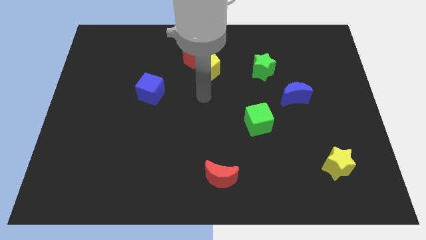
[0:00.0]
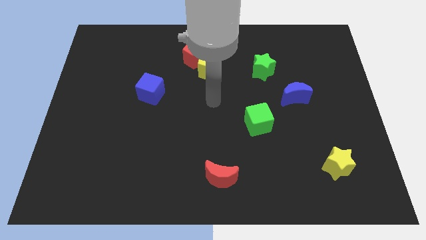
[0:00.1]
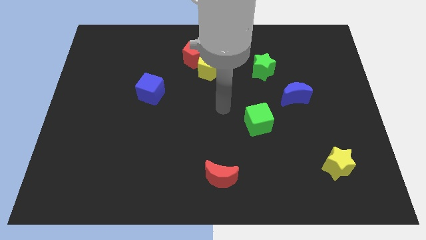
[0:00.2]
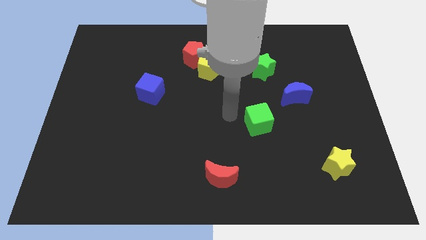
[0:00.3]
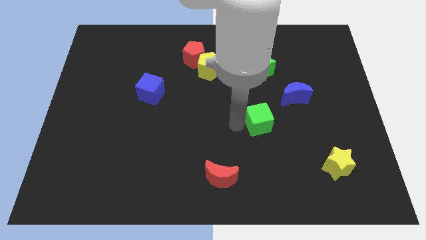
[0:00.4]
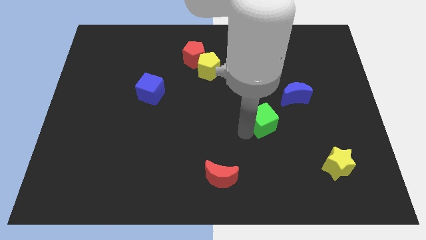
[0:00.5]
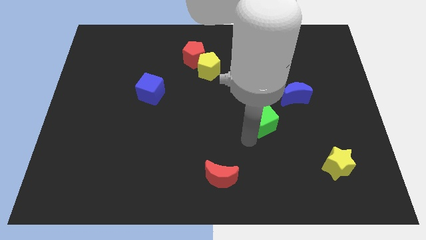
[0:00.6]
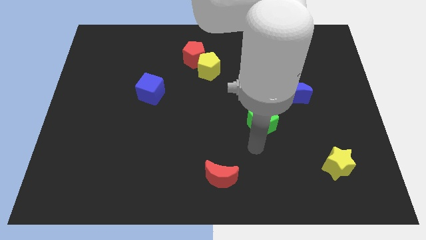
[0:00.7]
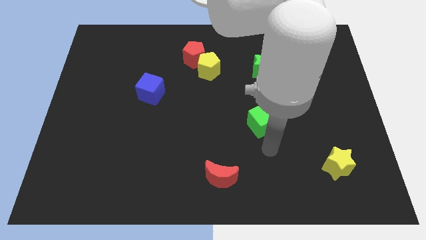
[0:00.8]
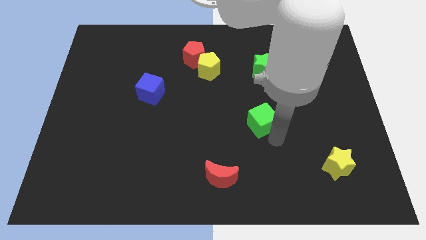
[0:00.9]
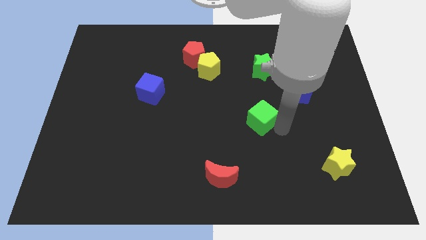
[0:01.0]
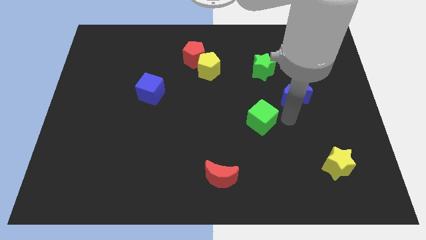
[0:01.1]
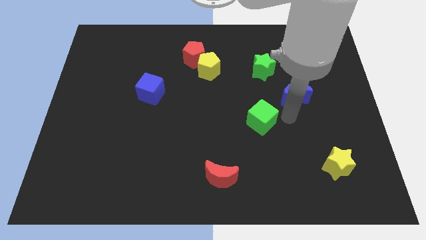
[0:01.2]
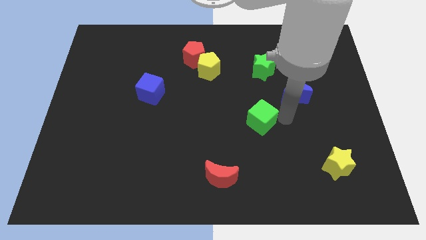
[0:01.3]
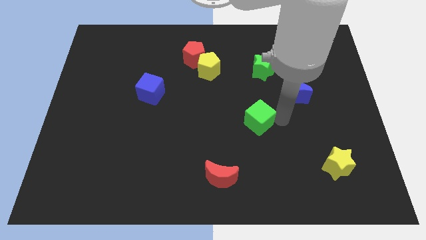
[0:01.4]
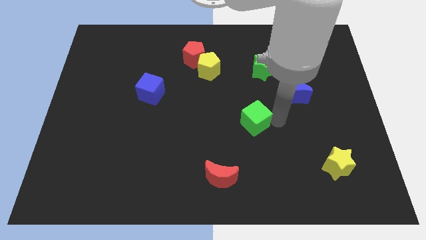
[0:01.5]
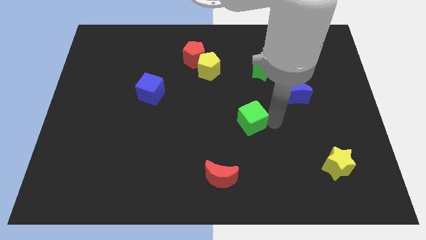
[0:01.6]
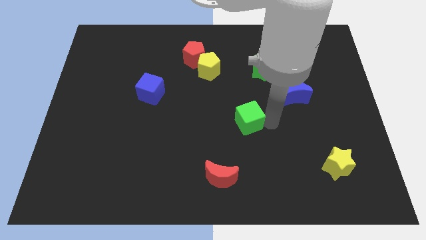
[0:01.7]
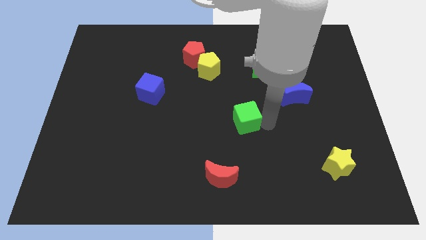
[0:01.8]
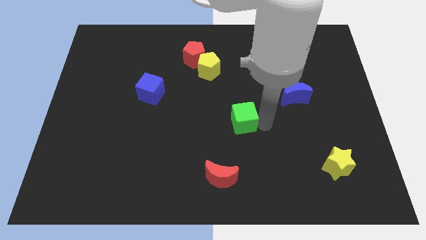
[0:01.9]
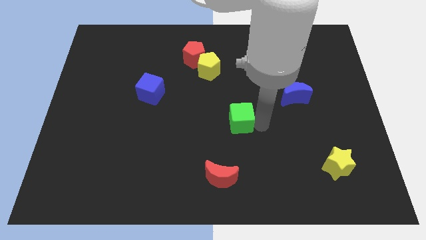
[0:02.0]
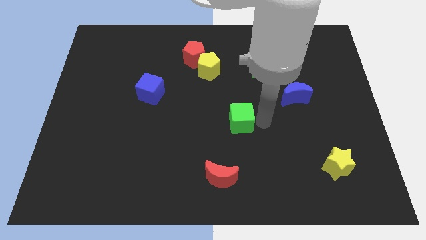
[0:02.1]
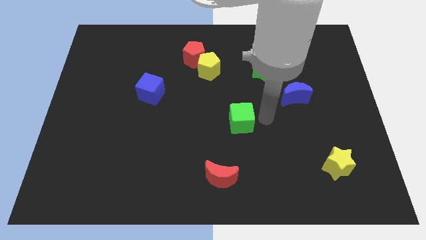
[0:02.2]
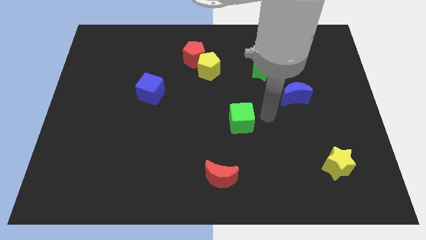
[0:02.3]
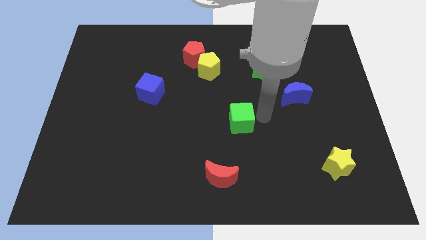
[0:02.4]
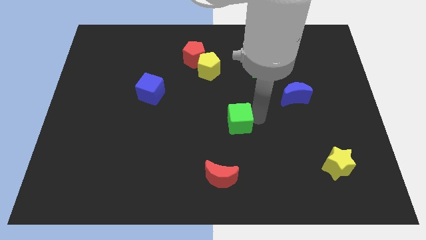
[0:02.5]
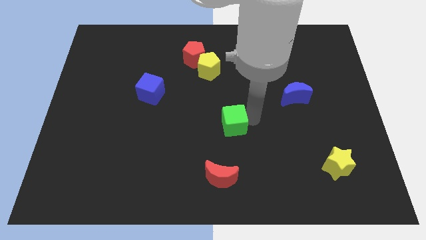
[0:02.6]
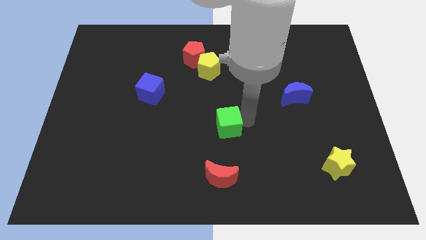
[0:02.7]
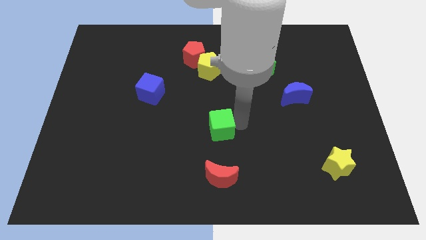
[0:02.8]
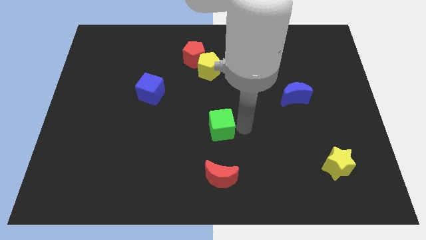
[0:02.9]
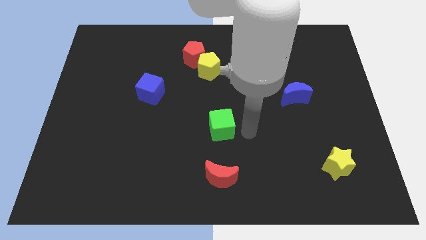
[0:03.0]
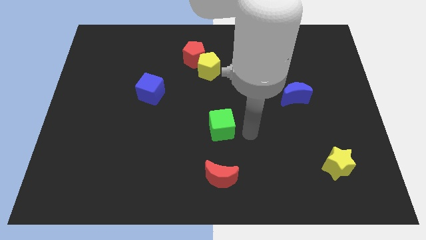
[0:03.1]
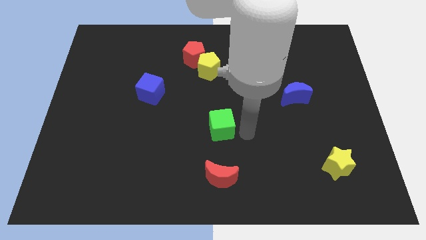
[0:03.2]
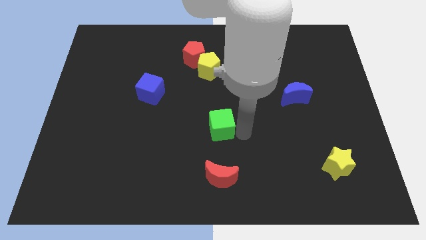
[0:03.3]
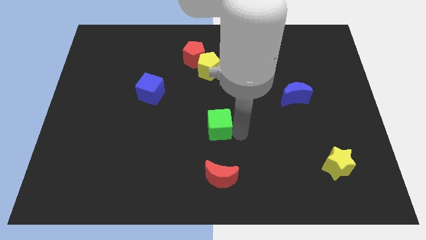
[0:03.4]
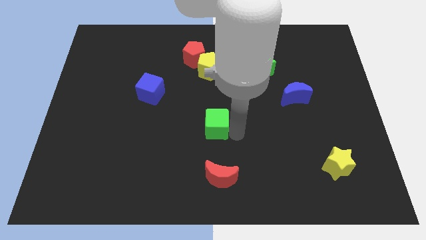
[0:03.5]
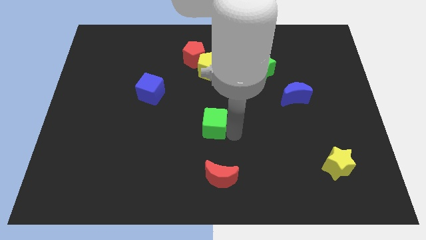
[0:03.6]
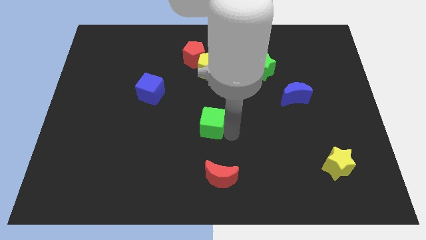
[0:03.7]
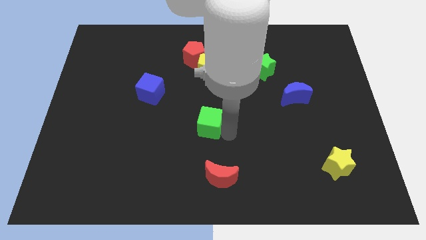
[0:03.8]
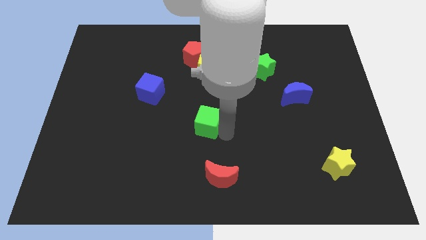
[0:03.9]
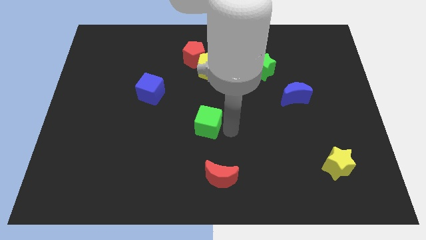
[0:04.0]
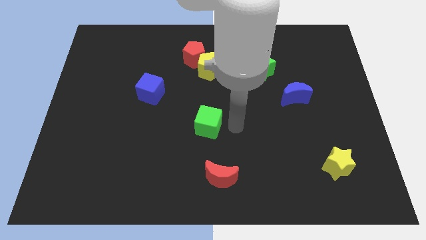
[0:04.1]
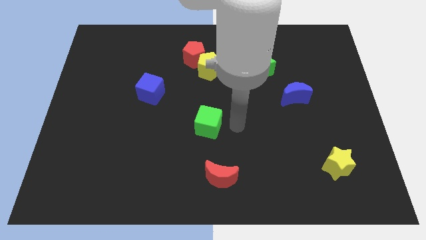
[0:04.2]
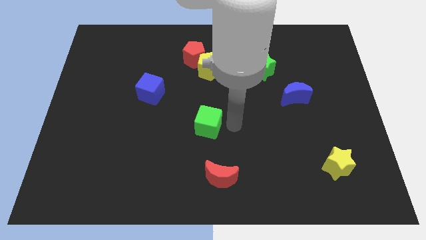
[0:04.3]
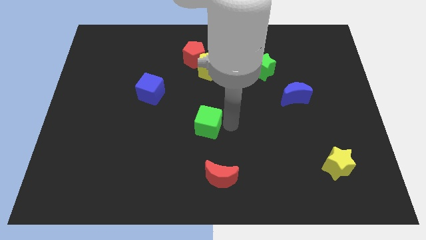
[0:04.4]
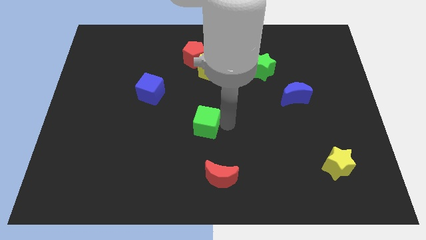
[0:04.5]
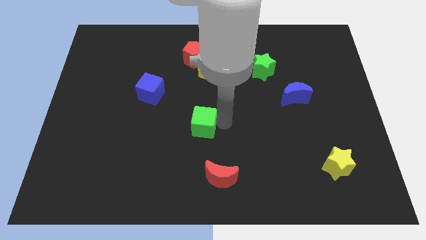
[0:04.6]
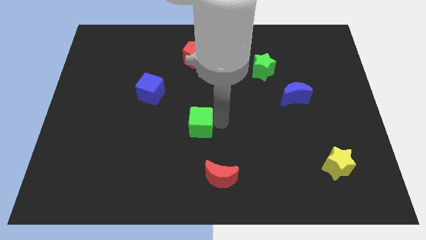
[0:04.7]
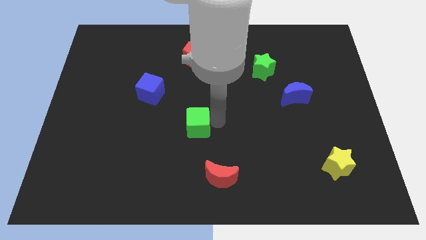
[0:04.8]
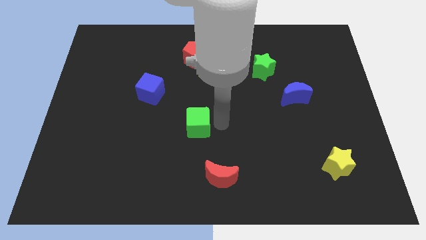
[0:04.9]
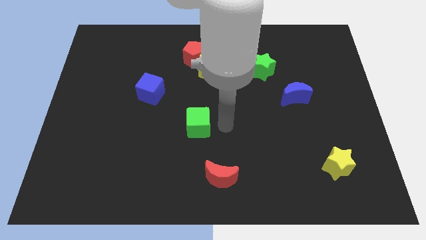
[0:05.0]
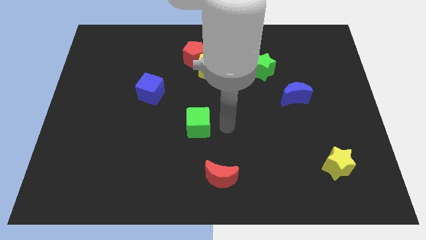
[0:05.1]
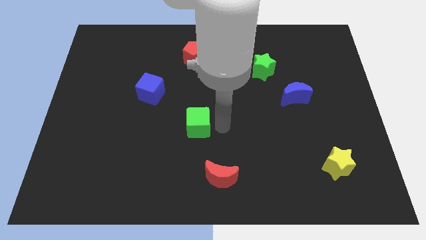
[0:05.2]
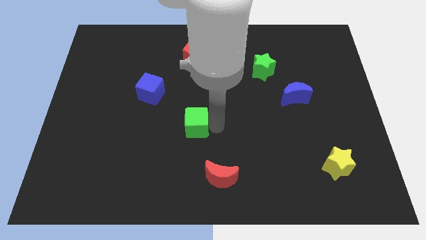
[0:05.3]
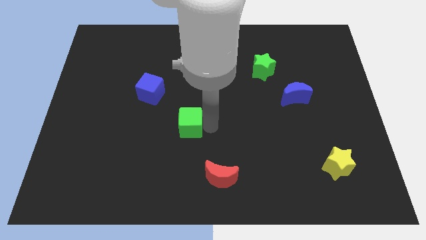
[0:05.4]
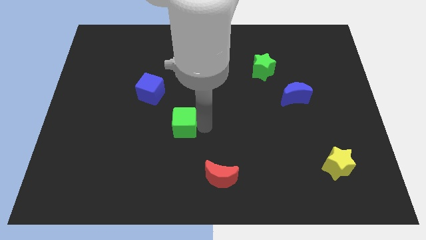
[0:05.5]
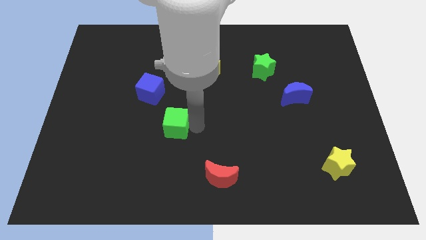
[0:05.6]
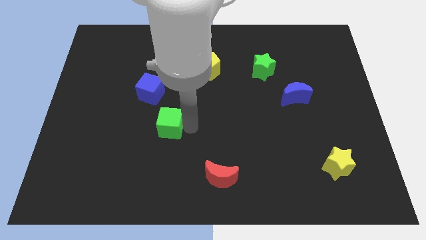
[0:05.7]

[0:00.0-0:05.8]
slide the green cube to the left

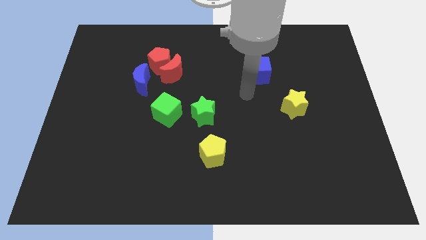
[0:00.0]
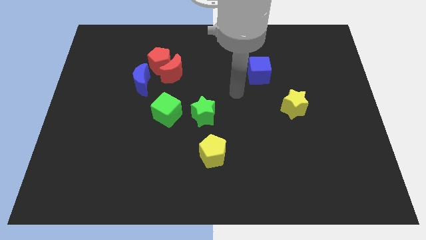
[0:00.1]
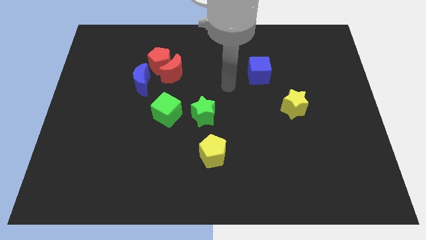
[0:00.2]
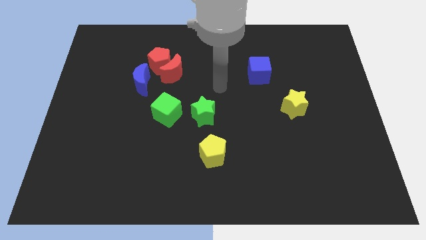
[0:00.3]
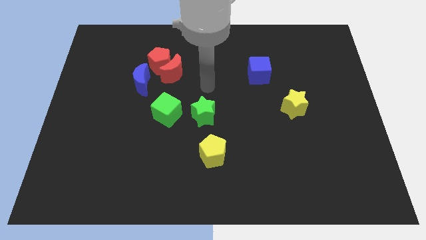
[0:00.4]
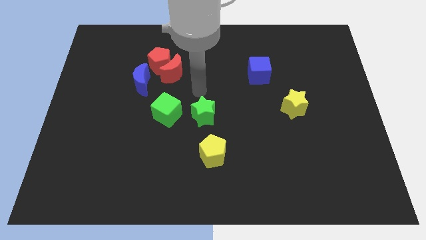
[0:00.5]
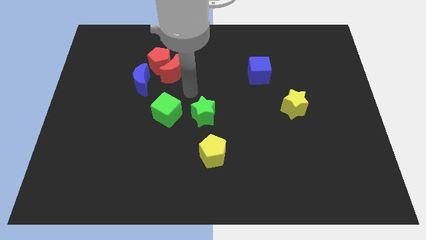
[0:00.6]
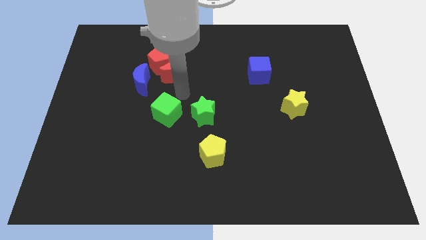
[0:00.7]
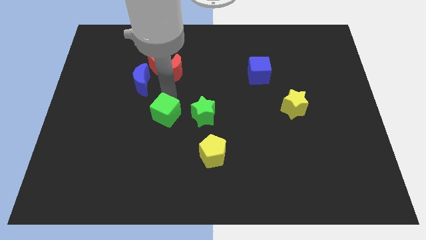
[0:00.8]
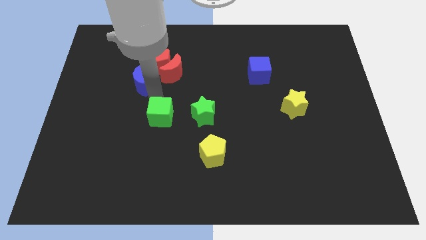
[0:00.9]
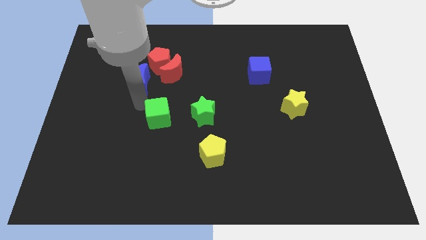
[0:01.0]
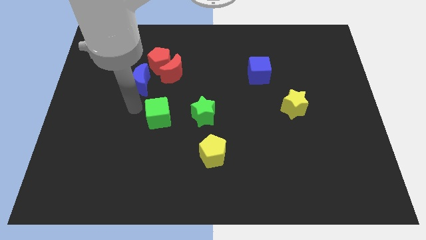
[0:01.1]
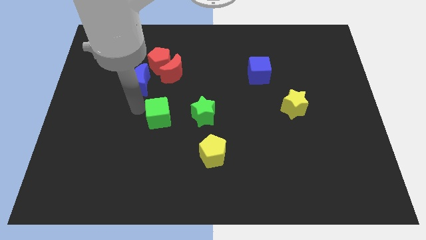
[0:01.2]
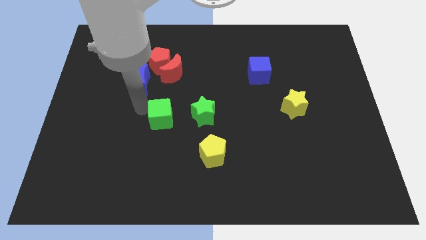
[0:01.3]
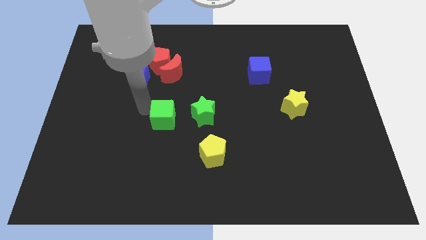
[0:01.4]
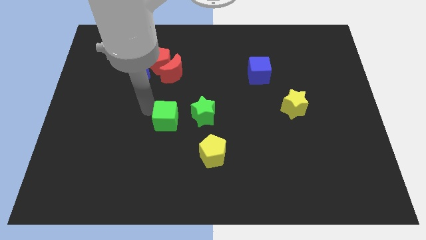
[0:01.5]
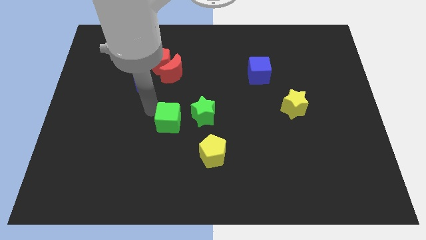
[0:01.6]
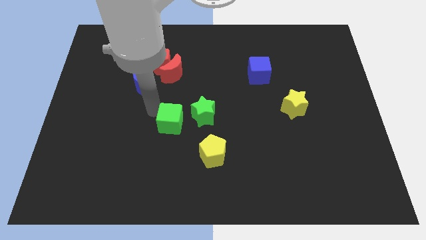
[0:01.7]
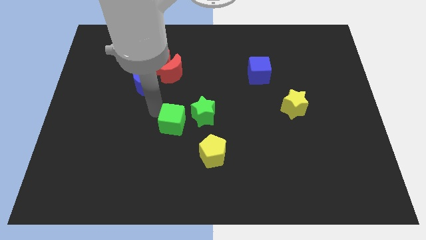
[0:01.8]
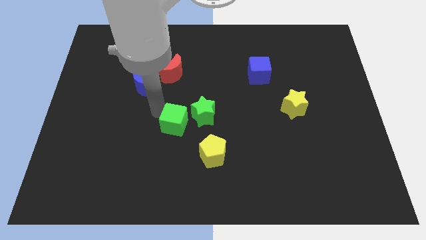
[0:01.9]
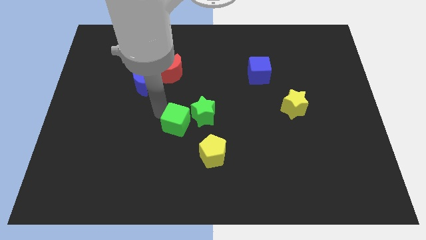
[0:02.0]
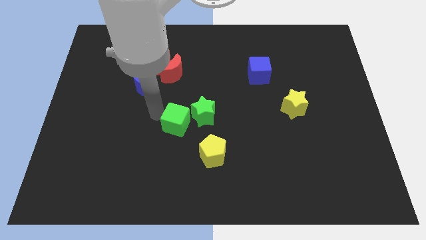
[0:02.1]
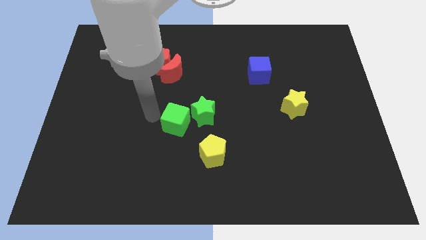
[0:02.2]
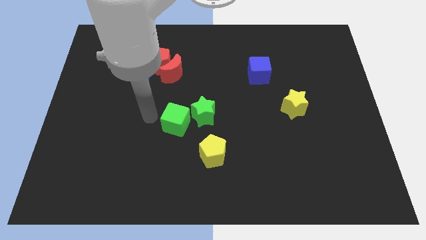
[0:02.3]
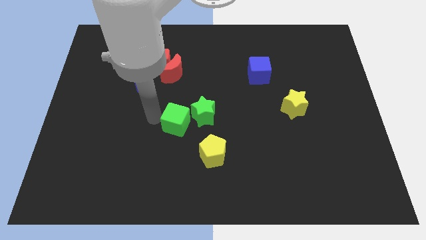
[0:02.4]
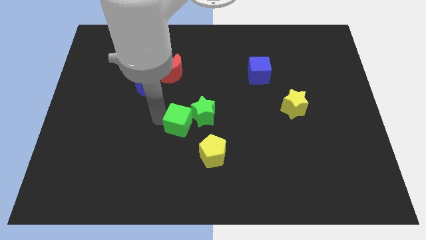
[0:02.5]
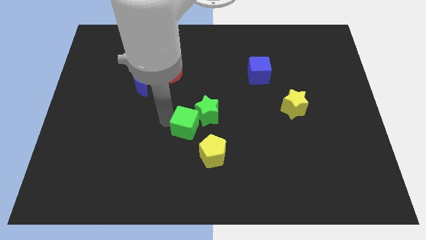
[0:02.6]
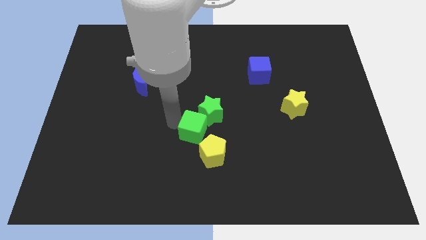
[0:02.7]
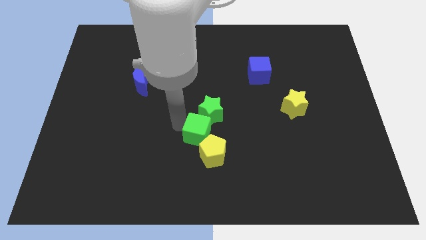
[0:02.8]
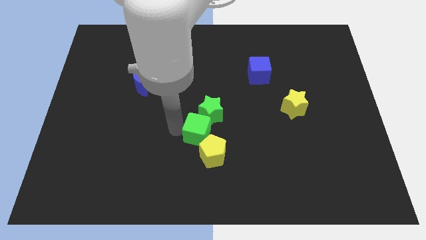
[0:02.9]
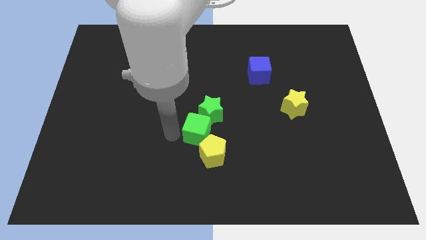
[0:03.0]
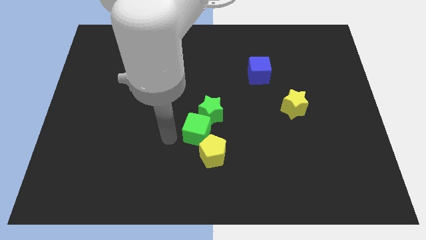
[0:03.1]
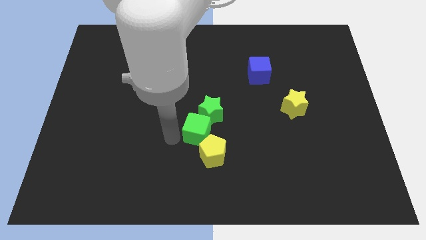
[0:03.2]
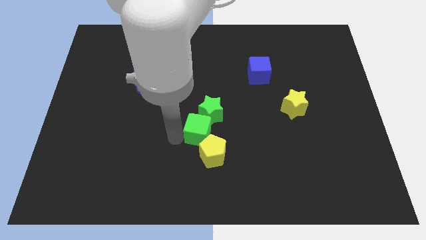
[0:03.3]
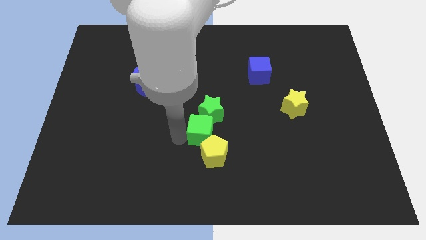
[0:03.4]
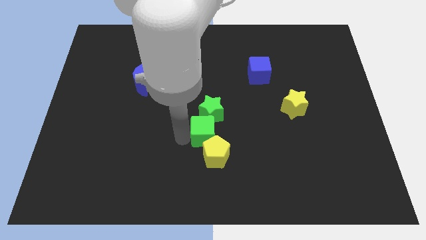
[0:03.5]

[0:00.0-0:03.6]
slide the green cube somewhat to the right
